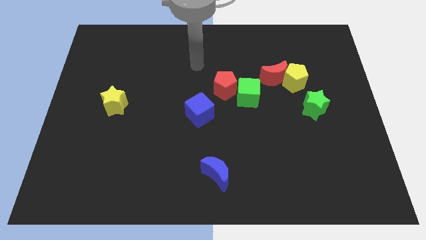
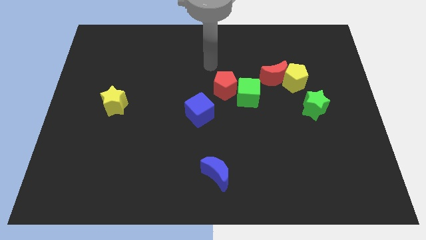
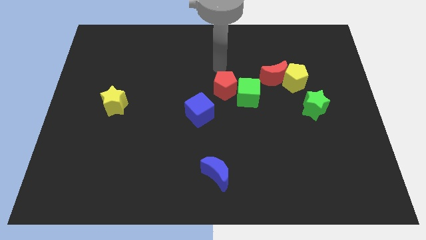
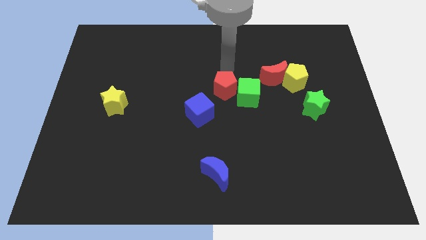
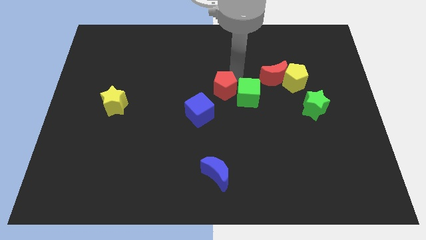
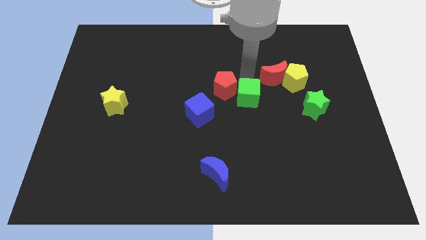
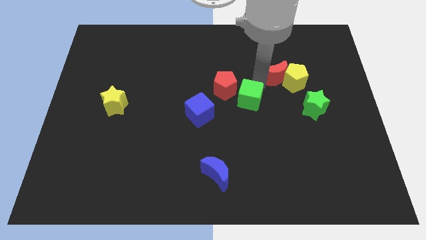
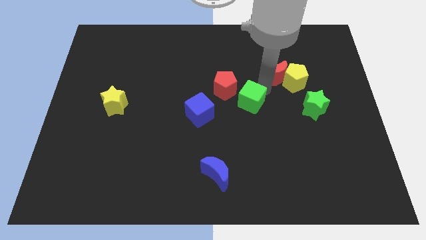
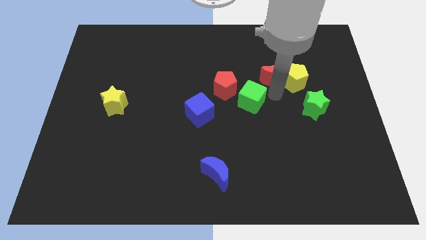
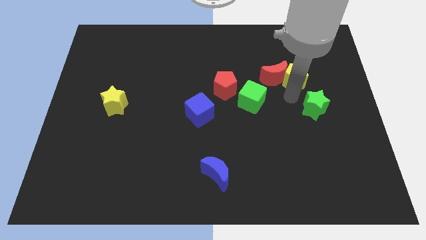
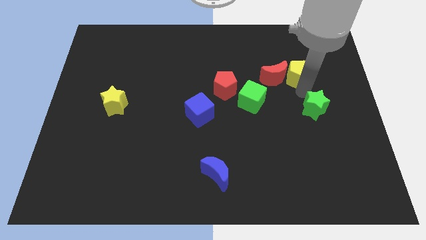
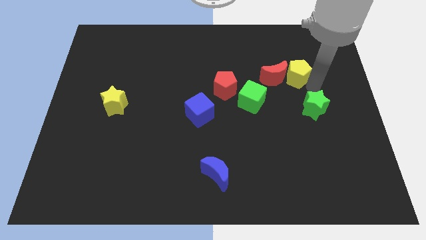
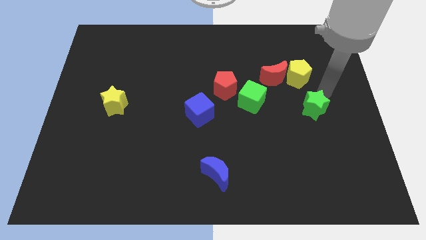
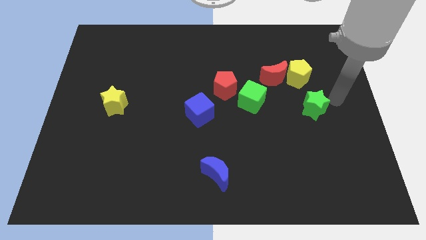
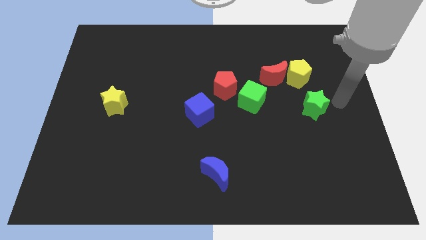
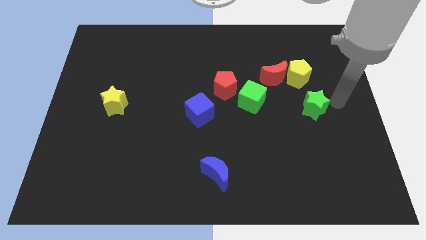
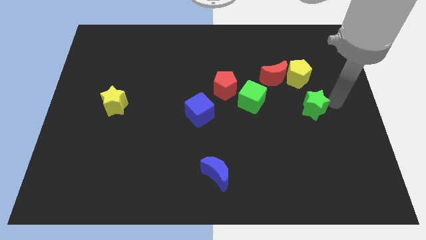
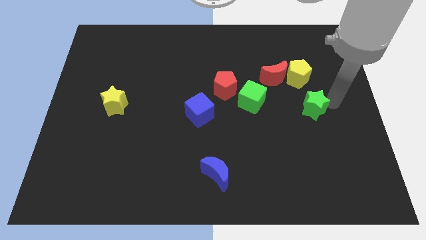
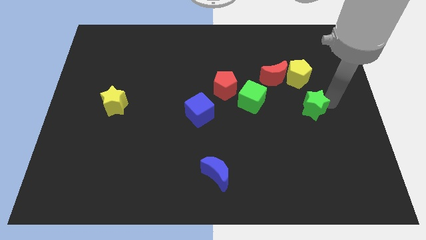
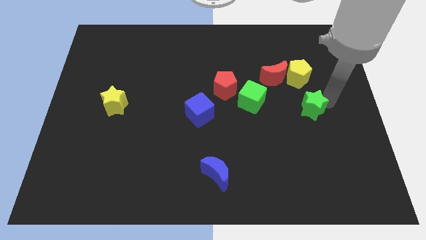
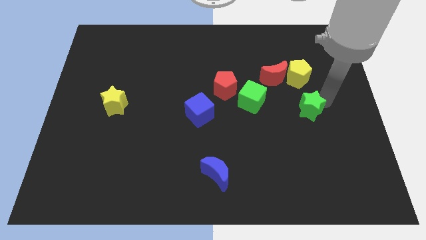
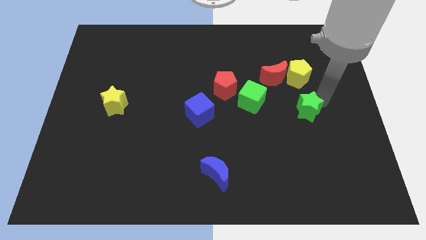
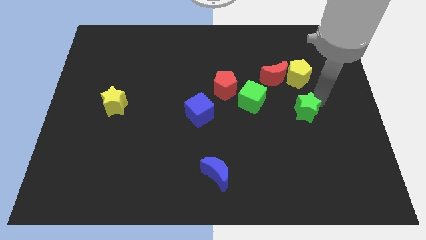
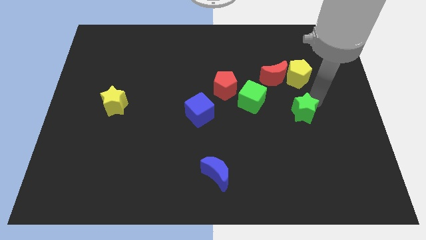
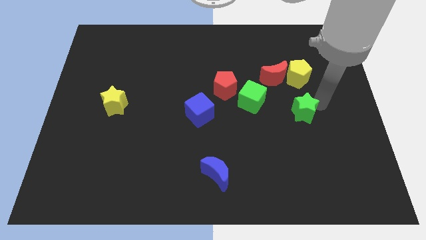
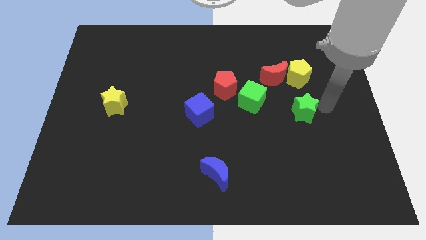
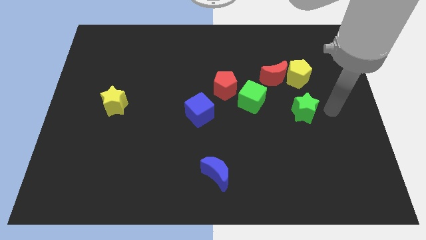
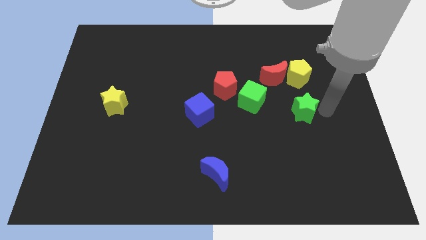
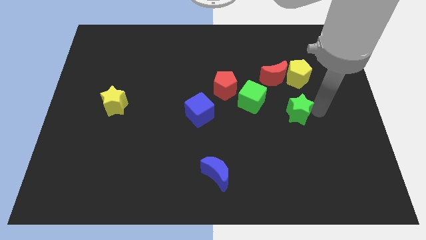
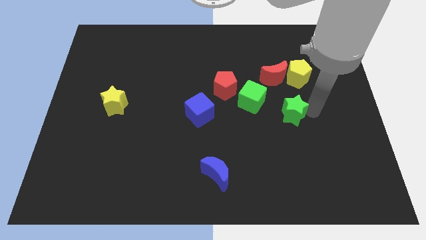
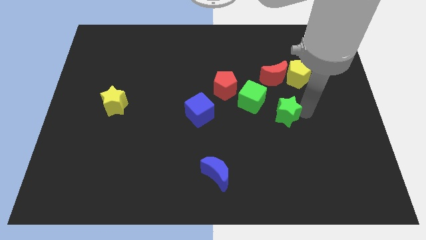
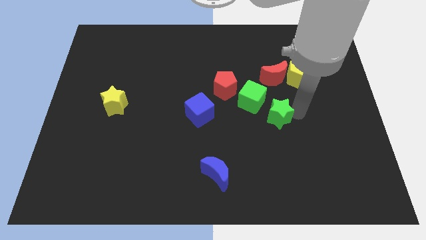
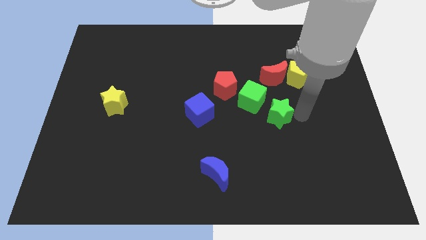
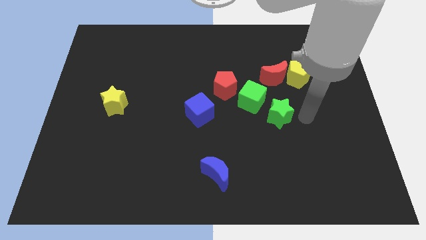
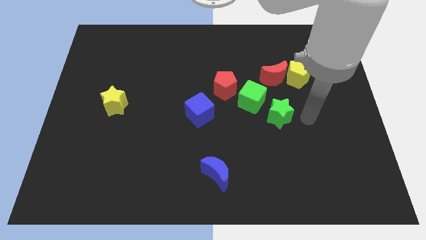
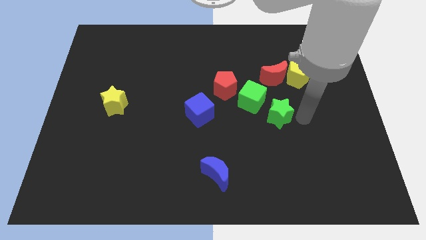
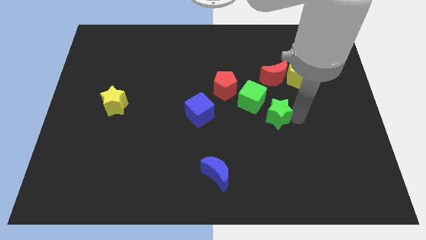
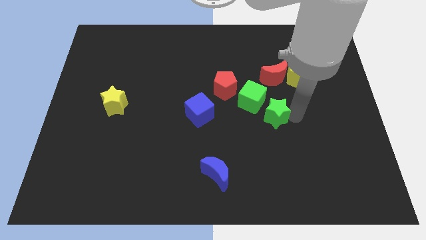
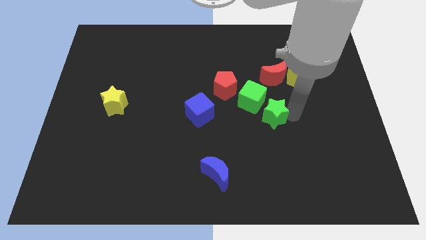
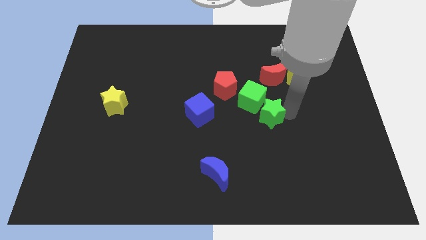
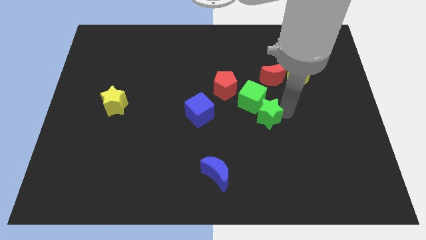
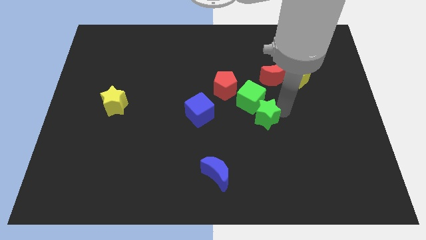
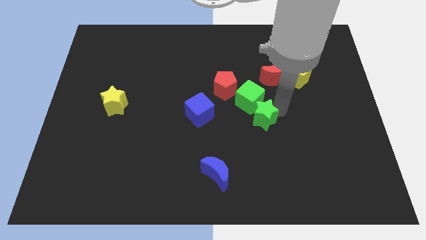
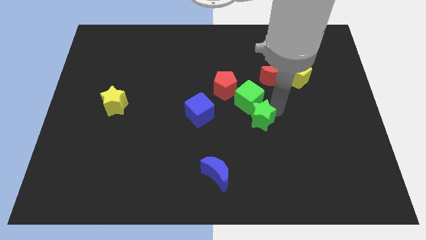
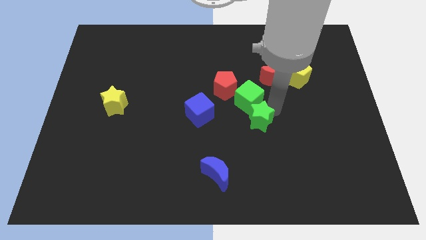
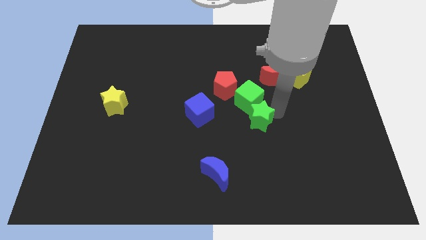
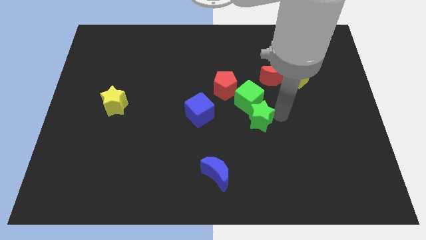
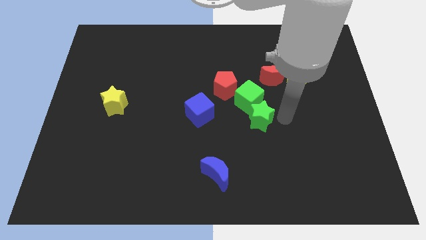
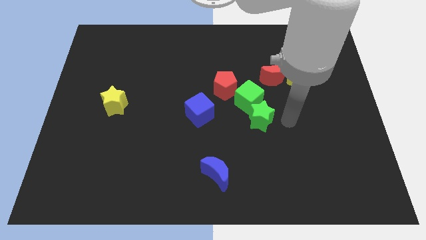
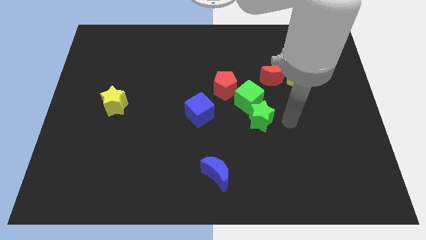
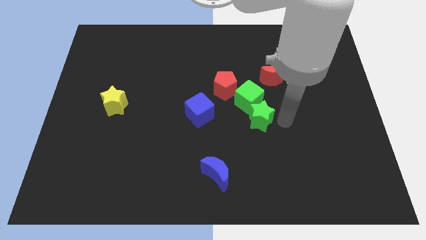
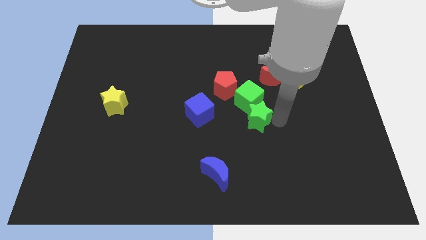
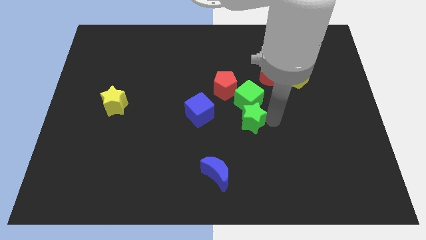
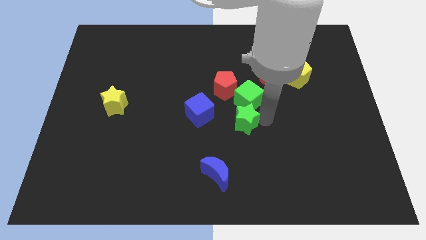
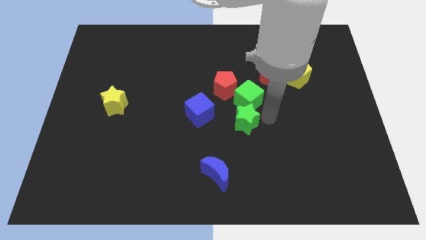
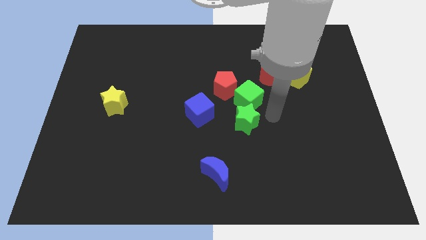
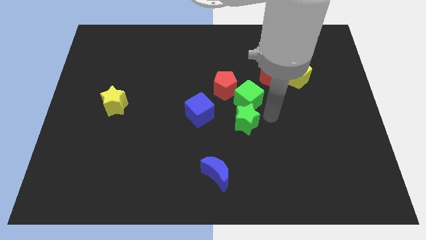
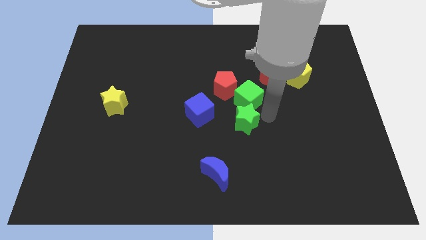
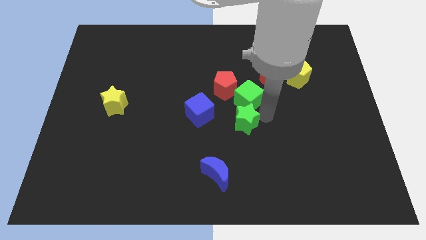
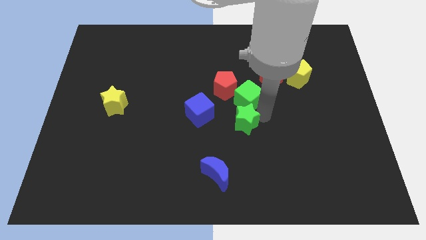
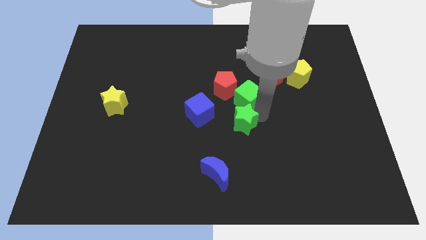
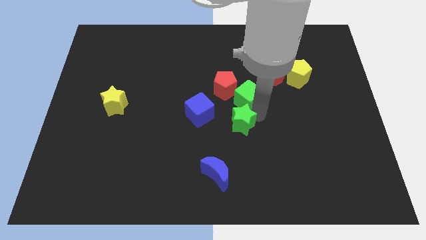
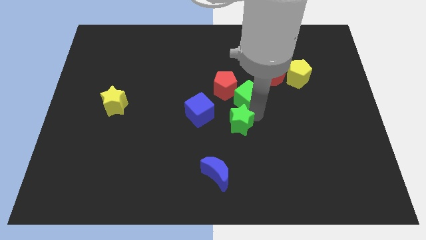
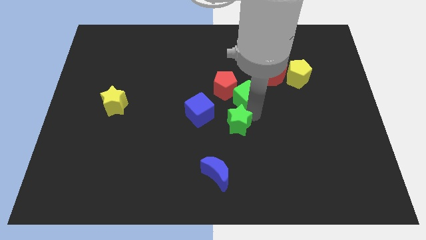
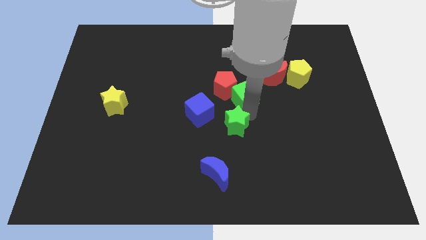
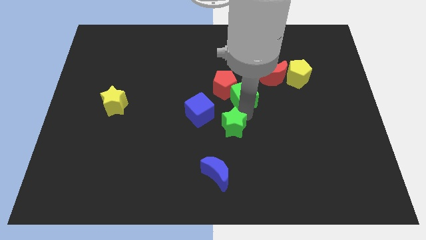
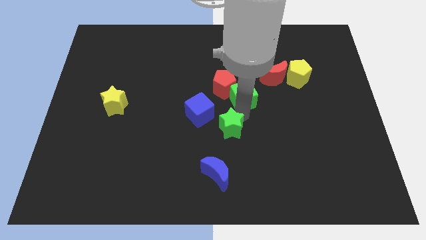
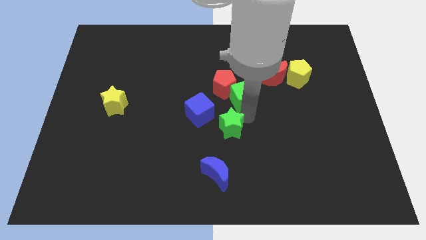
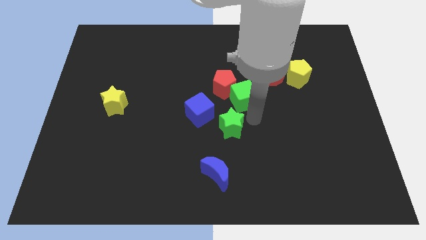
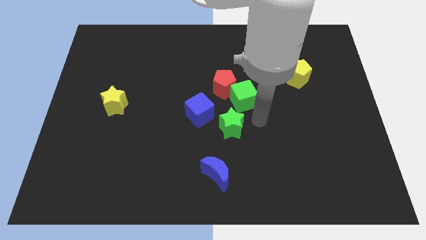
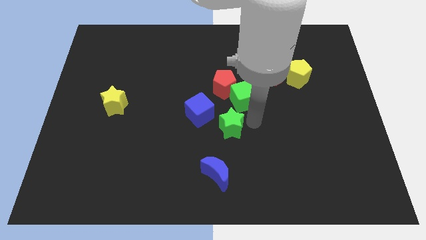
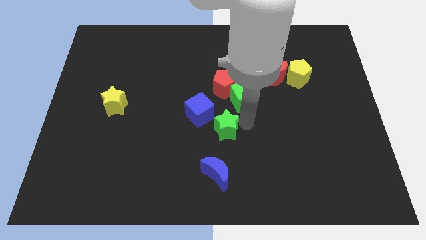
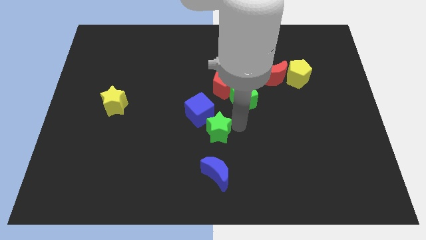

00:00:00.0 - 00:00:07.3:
push the green star to the left

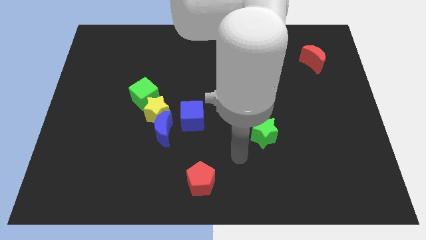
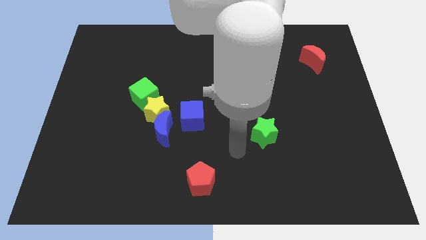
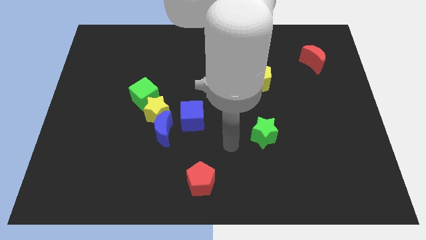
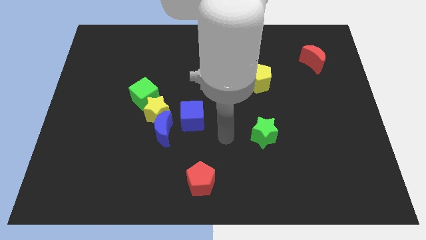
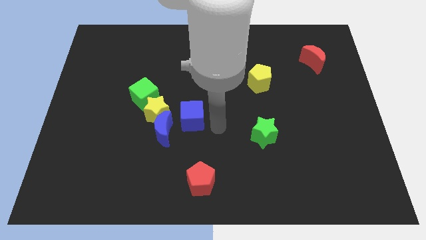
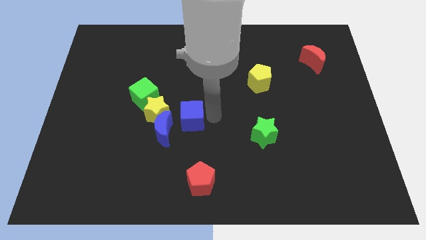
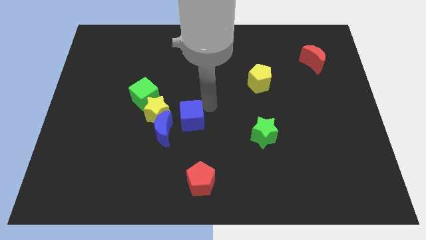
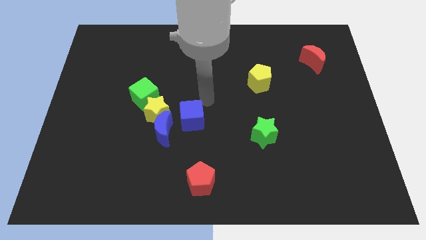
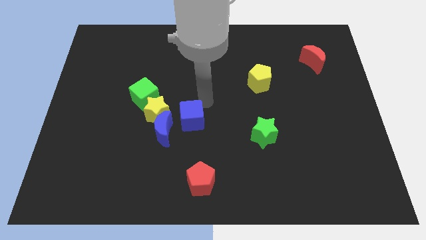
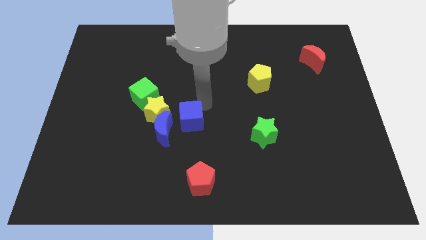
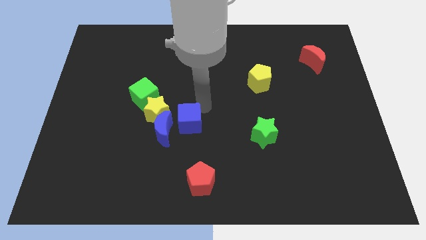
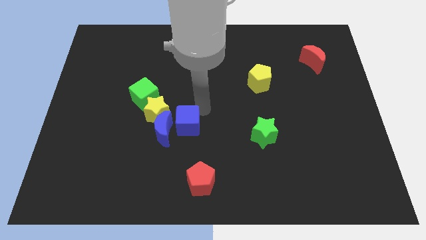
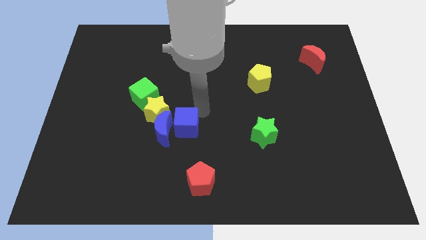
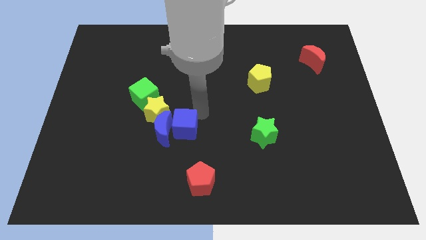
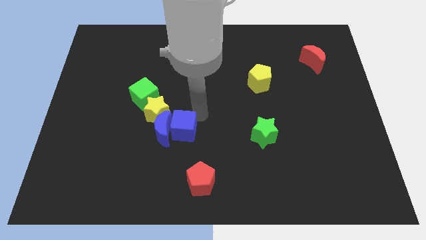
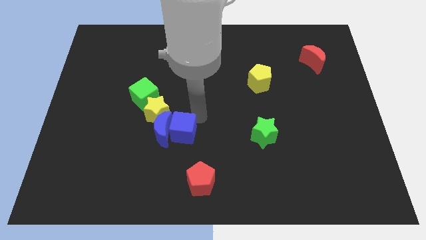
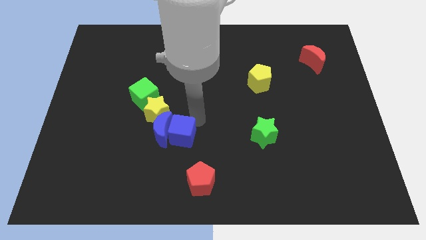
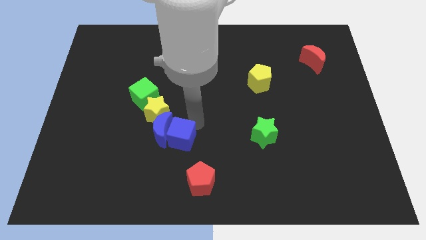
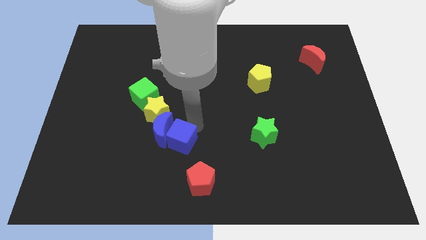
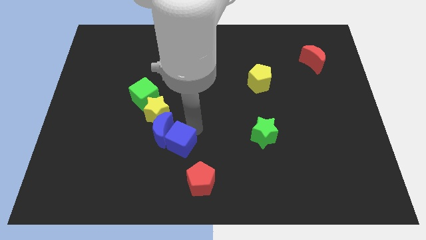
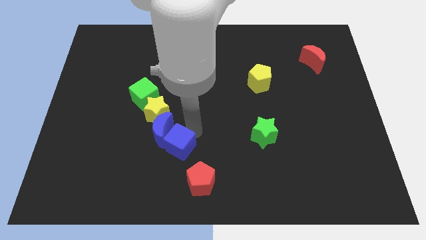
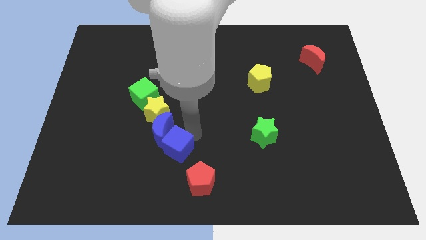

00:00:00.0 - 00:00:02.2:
push the blue cube a bit downwards and left
